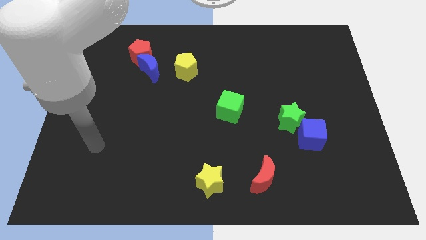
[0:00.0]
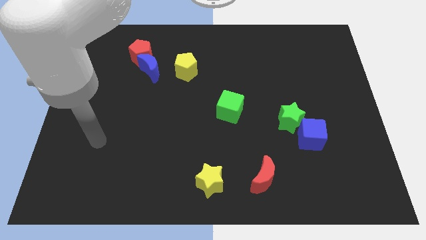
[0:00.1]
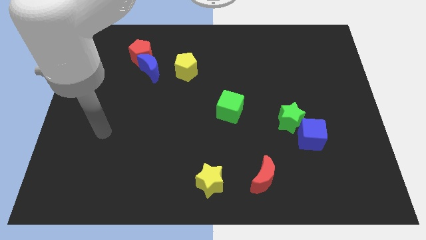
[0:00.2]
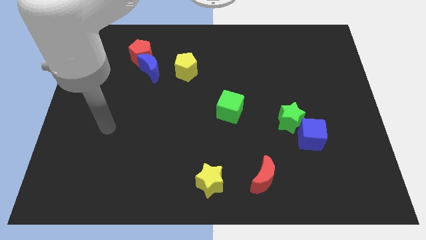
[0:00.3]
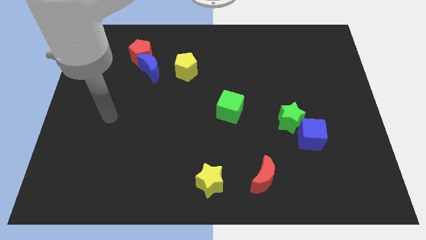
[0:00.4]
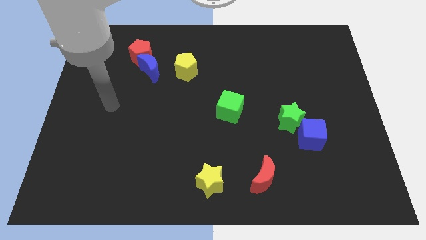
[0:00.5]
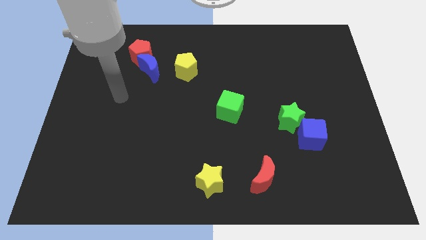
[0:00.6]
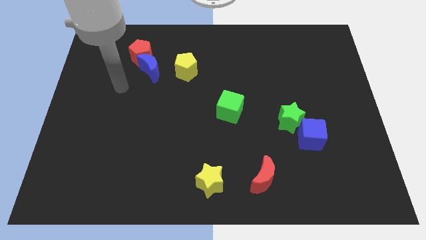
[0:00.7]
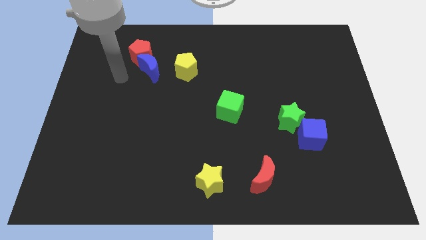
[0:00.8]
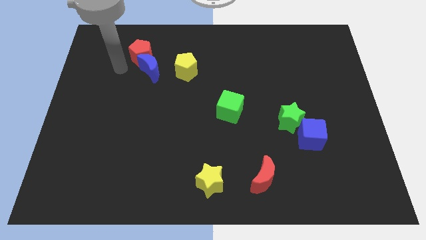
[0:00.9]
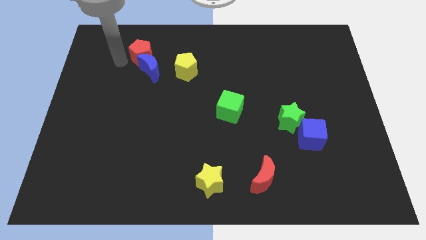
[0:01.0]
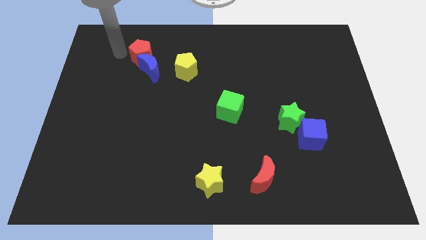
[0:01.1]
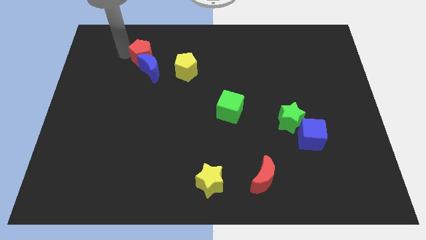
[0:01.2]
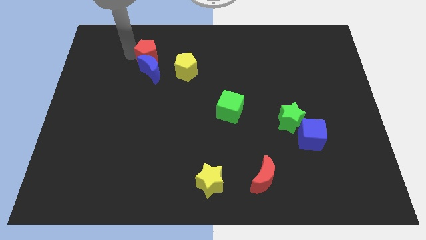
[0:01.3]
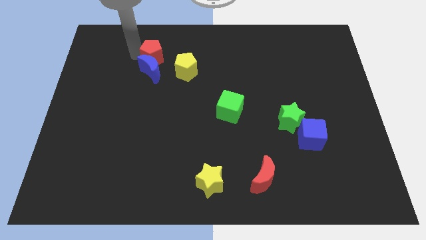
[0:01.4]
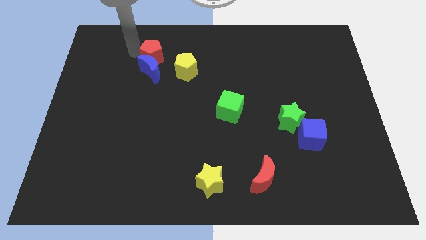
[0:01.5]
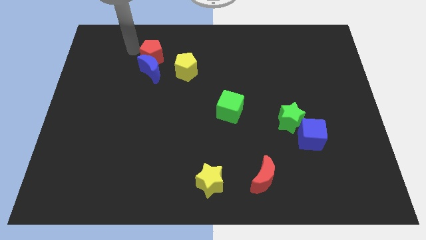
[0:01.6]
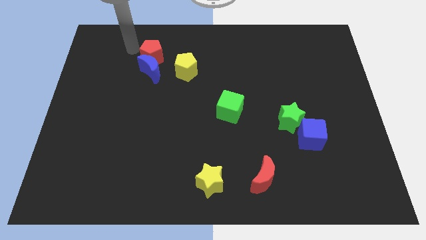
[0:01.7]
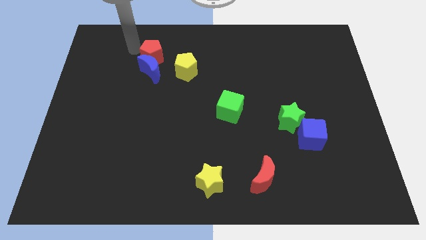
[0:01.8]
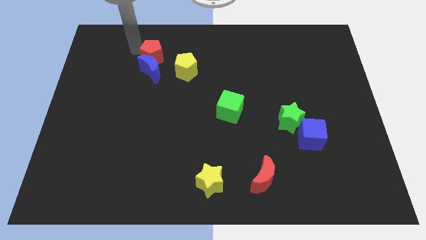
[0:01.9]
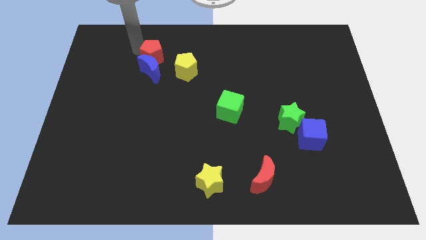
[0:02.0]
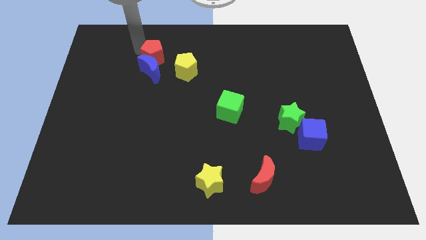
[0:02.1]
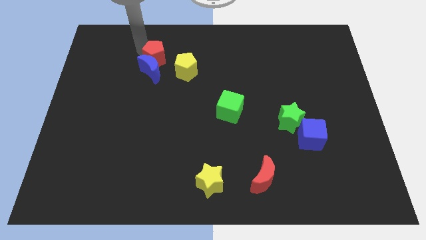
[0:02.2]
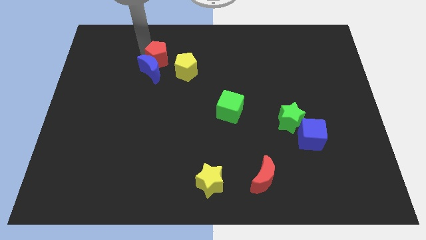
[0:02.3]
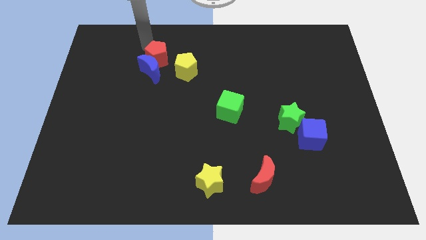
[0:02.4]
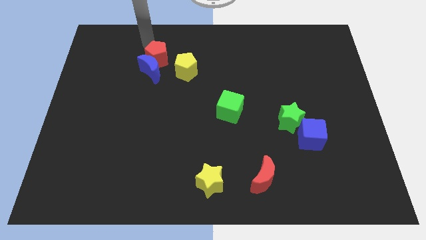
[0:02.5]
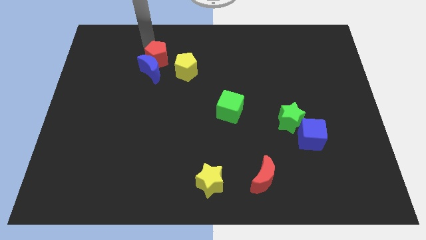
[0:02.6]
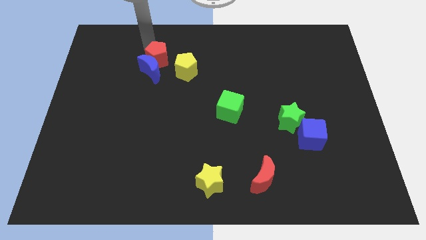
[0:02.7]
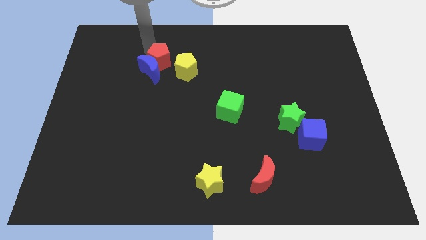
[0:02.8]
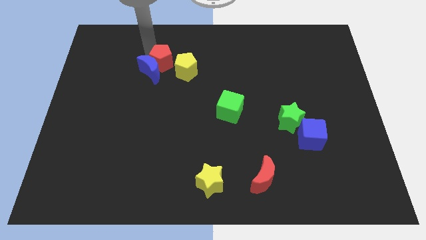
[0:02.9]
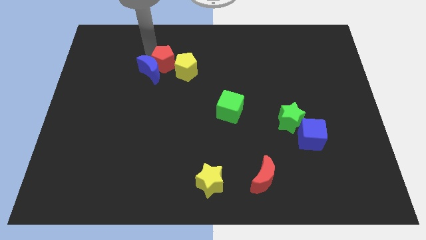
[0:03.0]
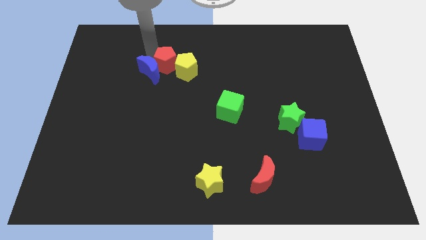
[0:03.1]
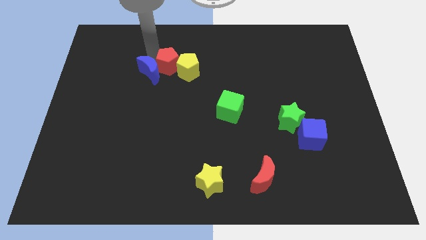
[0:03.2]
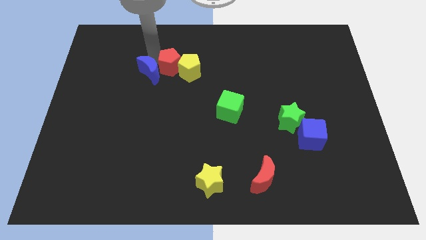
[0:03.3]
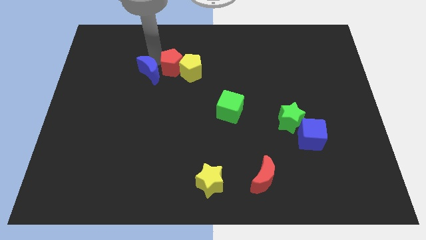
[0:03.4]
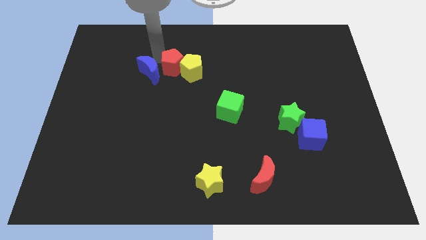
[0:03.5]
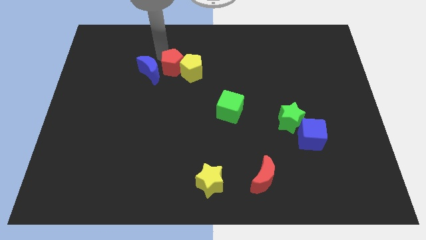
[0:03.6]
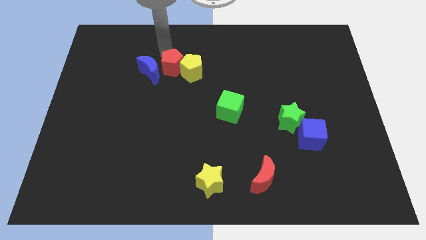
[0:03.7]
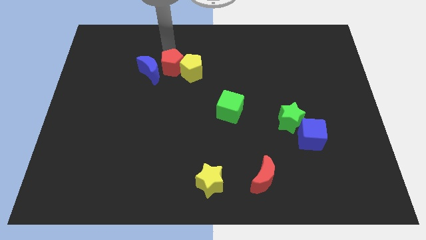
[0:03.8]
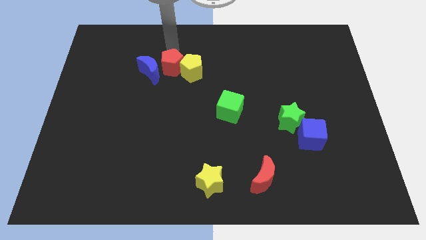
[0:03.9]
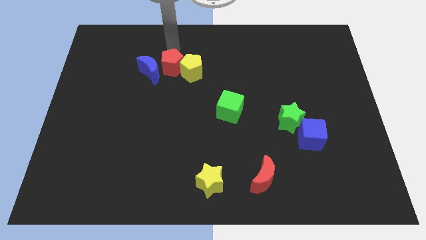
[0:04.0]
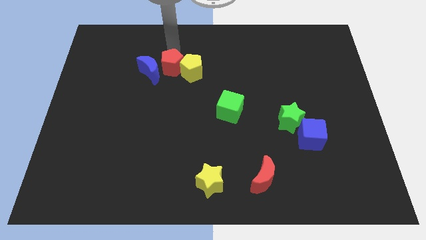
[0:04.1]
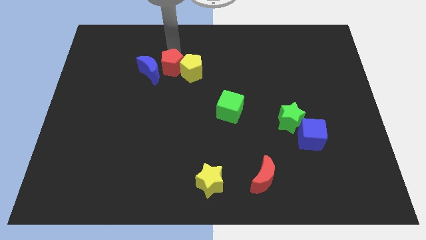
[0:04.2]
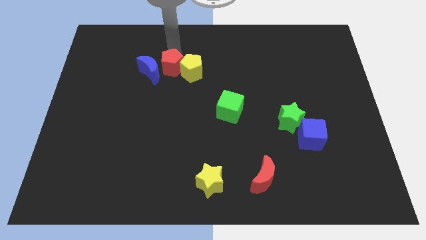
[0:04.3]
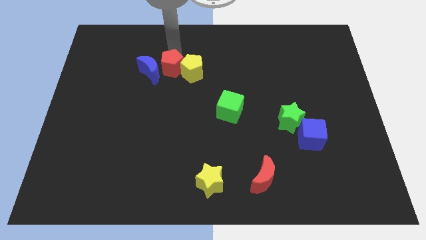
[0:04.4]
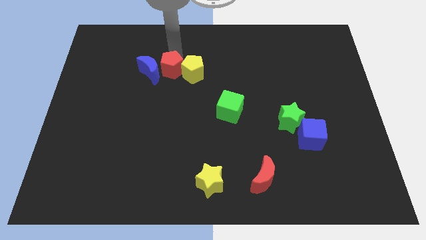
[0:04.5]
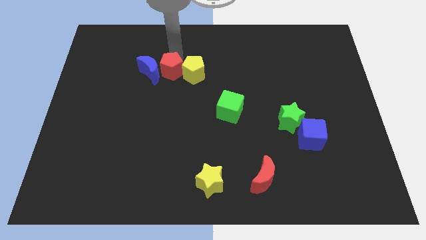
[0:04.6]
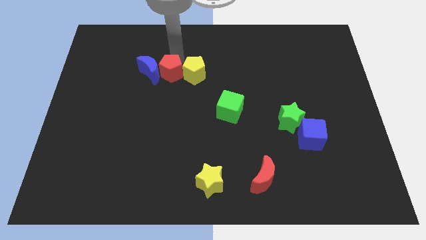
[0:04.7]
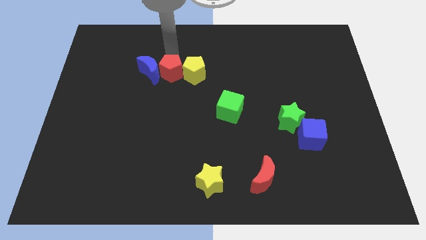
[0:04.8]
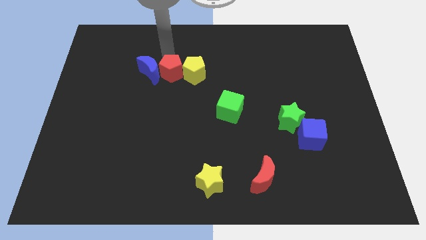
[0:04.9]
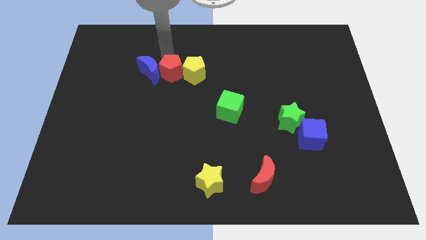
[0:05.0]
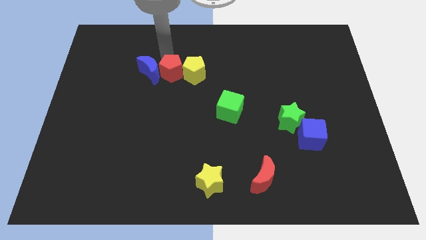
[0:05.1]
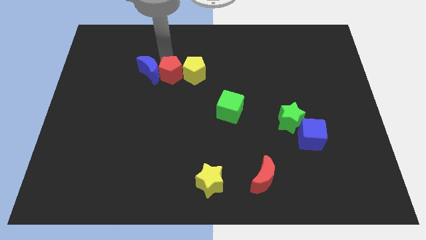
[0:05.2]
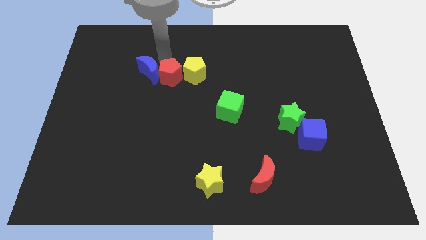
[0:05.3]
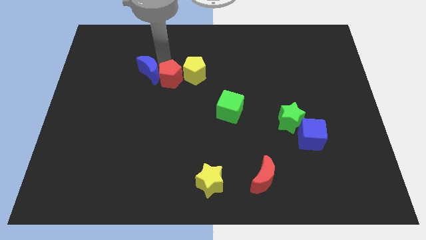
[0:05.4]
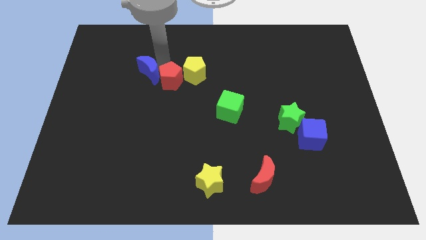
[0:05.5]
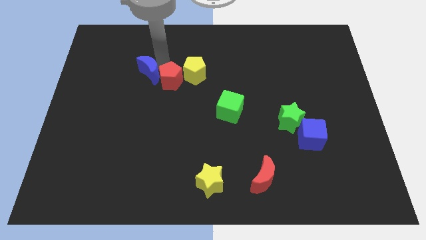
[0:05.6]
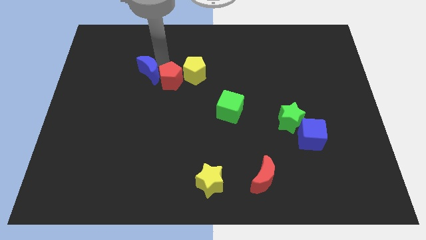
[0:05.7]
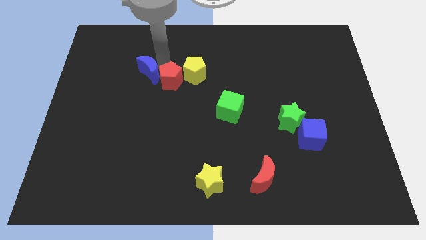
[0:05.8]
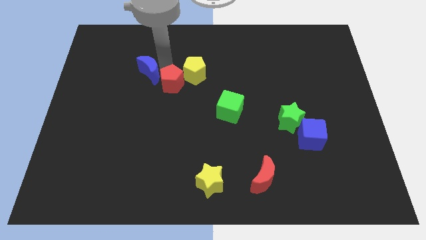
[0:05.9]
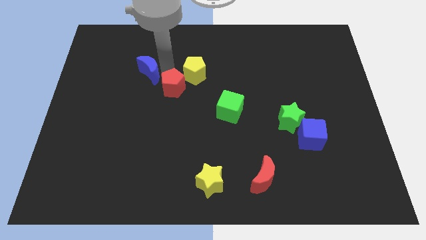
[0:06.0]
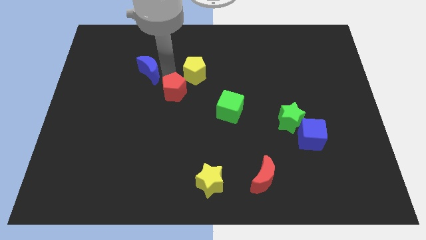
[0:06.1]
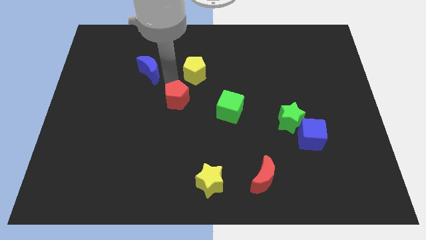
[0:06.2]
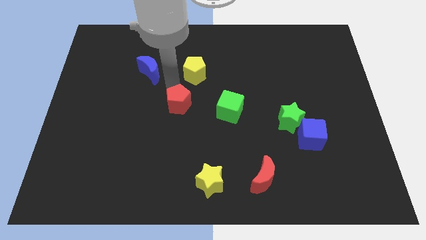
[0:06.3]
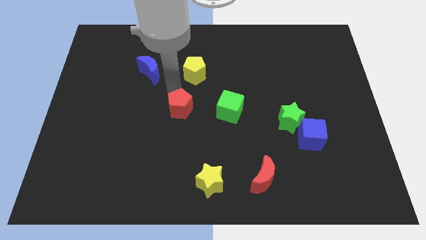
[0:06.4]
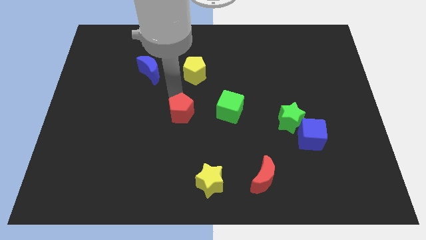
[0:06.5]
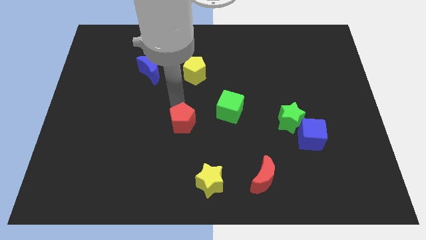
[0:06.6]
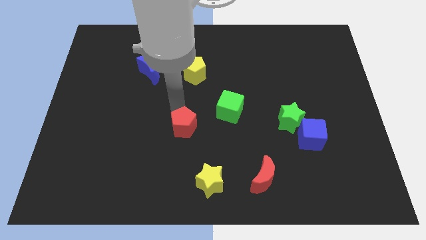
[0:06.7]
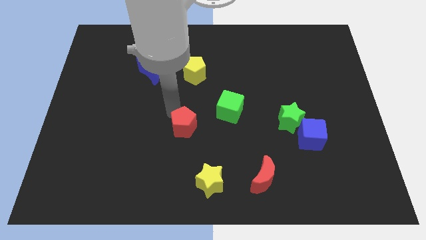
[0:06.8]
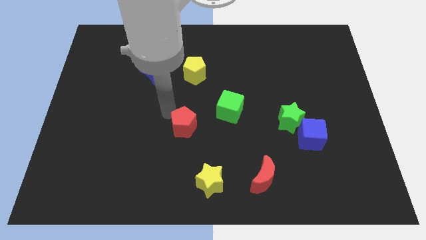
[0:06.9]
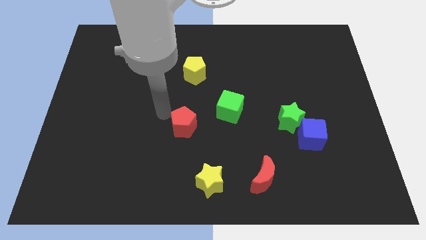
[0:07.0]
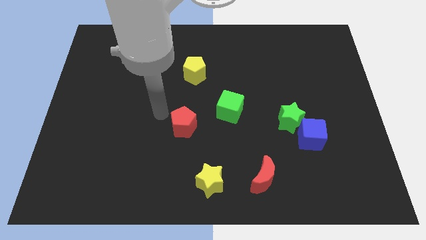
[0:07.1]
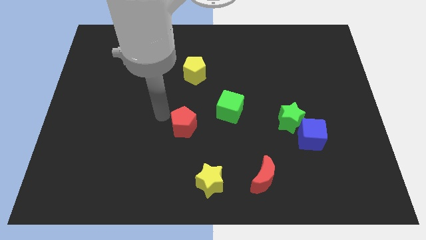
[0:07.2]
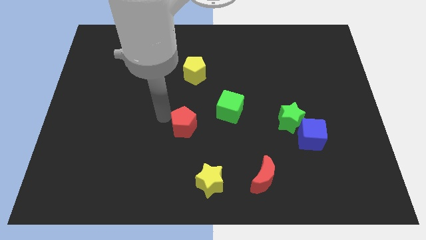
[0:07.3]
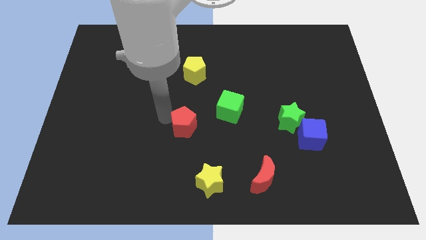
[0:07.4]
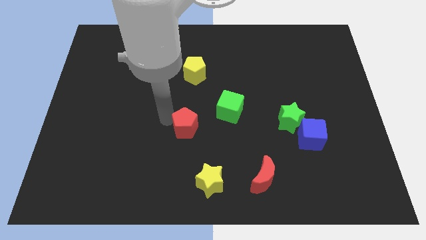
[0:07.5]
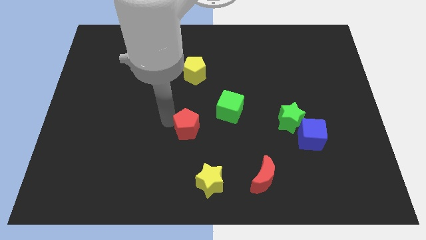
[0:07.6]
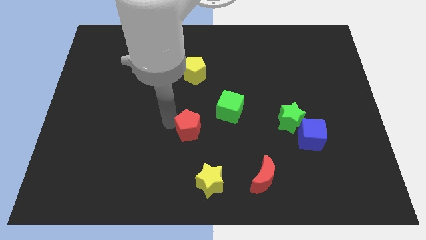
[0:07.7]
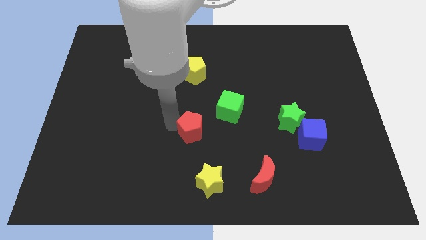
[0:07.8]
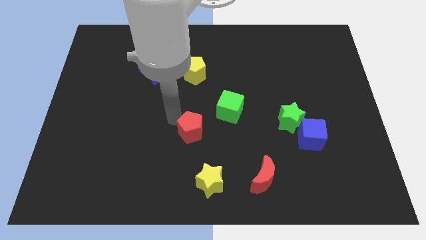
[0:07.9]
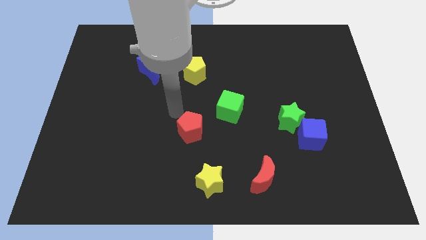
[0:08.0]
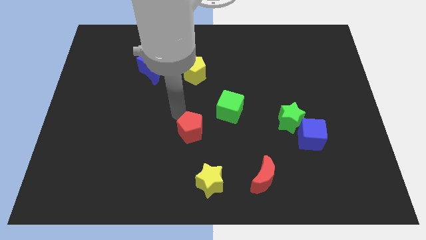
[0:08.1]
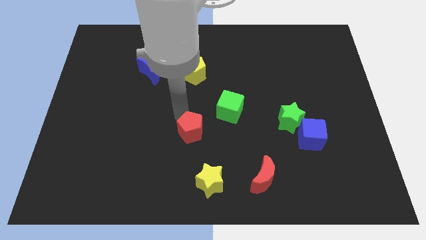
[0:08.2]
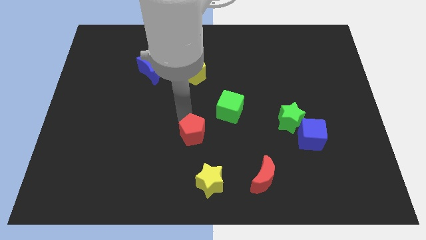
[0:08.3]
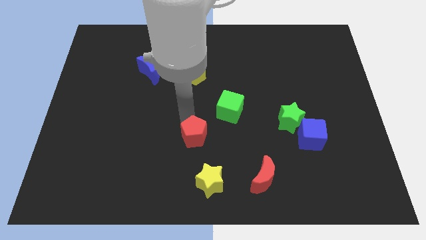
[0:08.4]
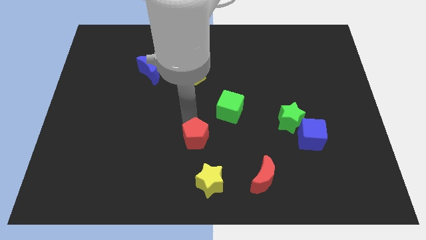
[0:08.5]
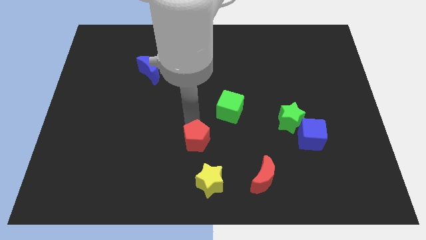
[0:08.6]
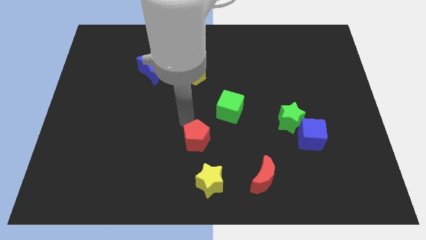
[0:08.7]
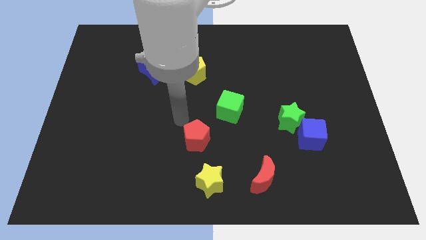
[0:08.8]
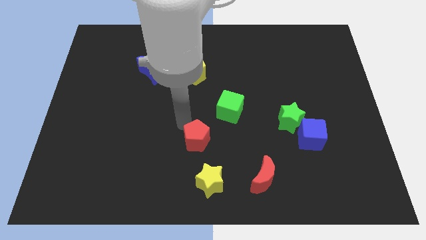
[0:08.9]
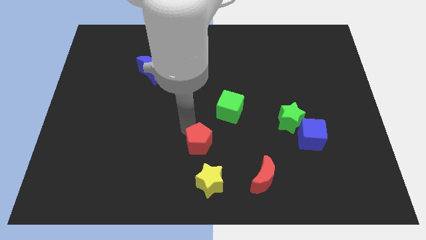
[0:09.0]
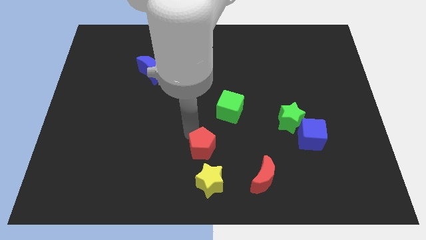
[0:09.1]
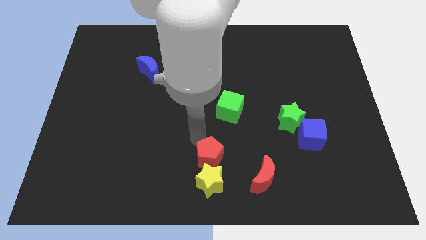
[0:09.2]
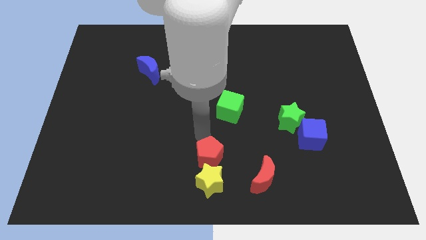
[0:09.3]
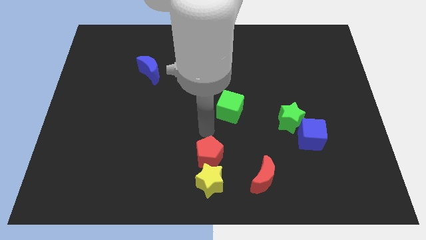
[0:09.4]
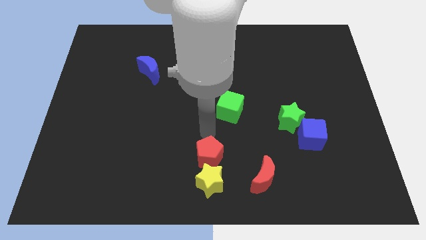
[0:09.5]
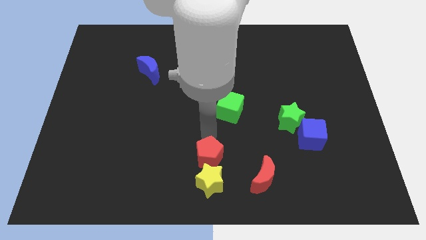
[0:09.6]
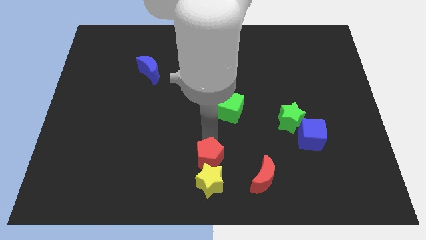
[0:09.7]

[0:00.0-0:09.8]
move the red pentagon next to the yellow star
